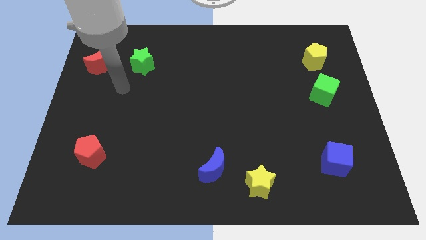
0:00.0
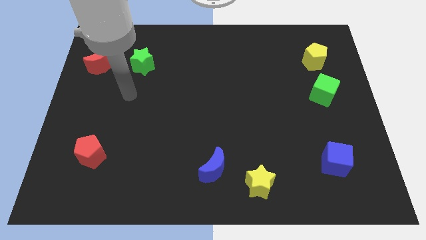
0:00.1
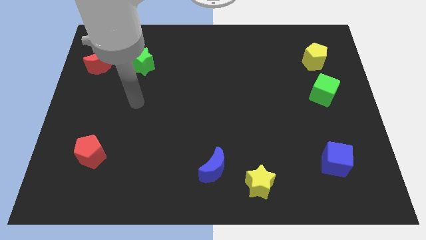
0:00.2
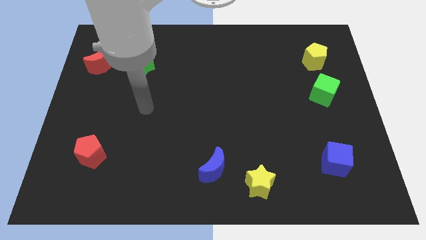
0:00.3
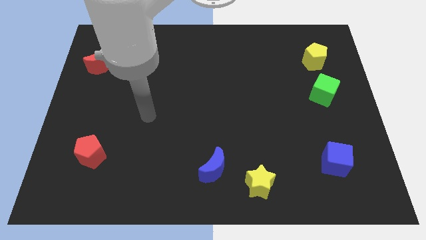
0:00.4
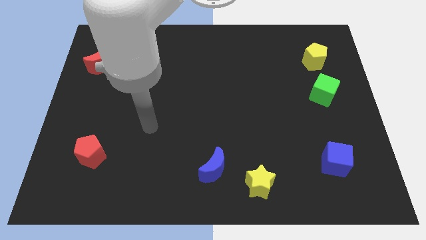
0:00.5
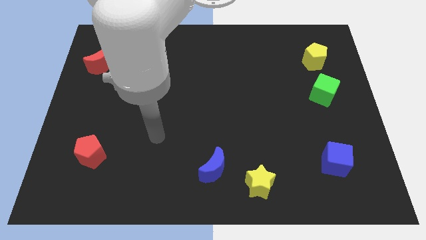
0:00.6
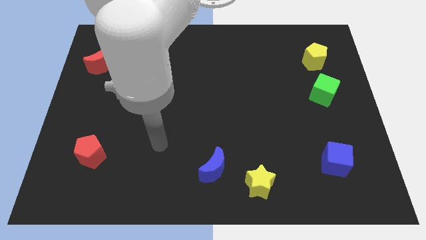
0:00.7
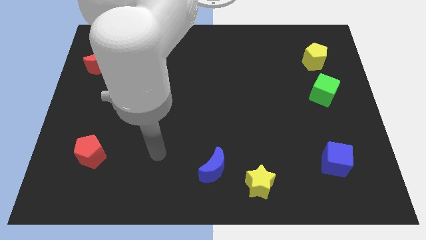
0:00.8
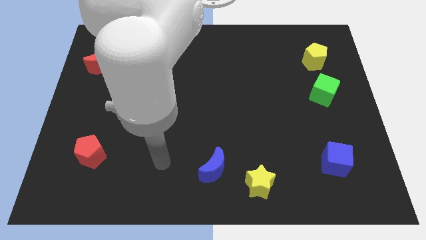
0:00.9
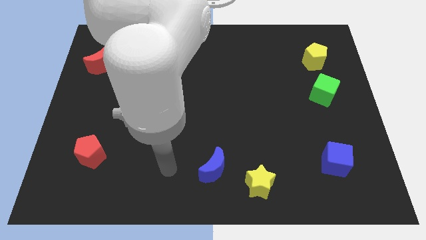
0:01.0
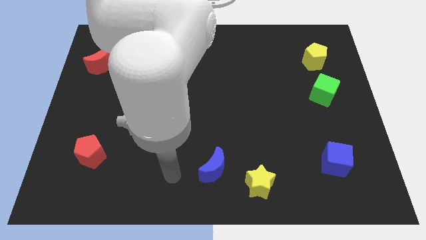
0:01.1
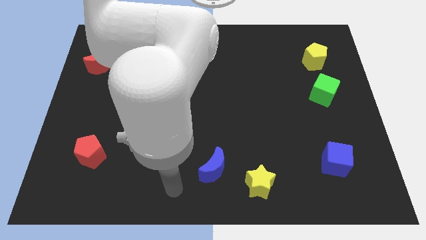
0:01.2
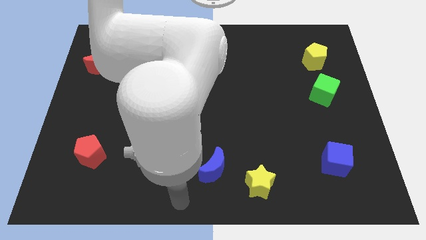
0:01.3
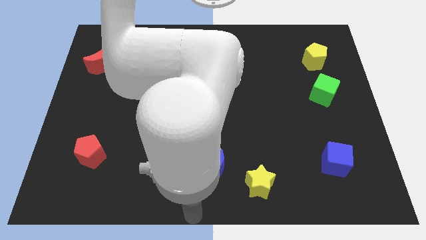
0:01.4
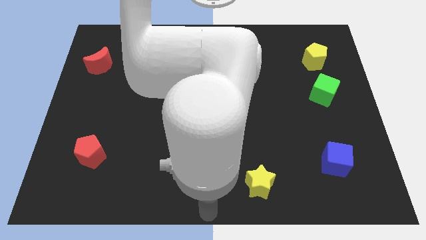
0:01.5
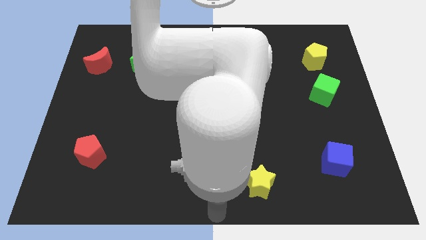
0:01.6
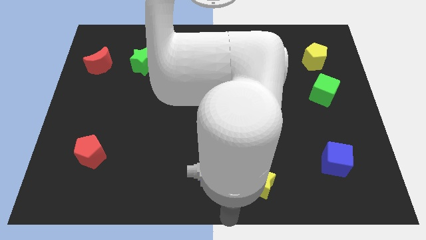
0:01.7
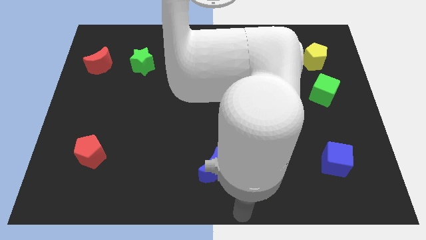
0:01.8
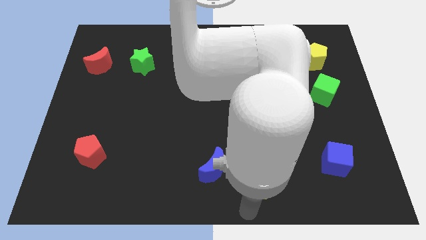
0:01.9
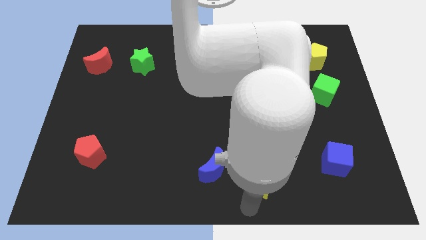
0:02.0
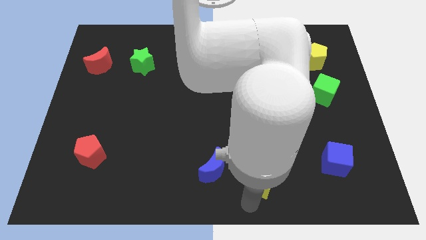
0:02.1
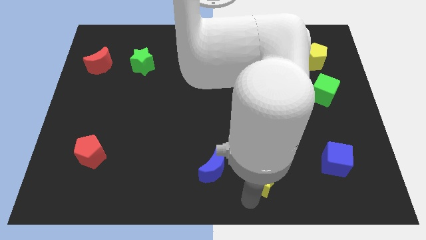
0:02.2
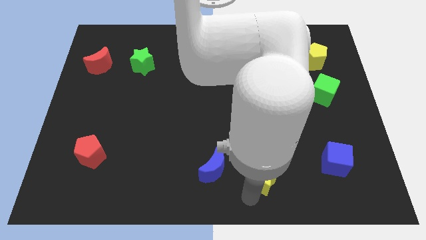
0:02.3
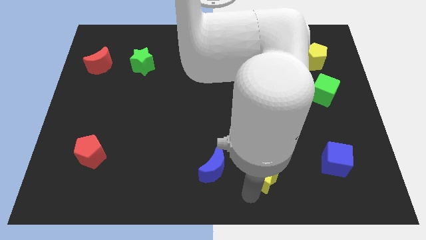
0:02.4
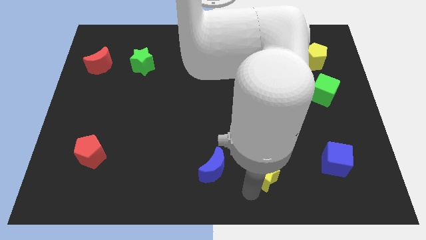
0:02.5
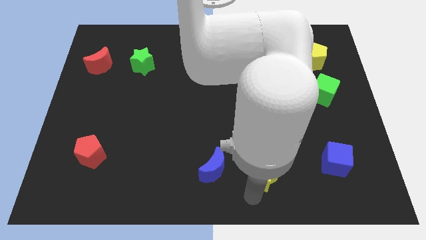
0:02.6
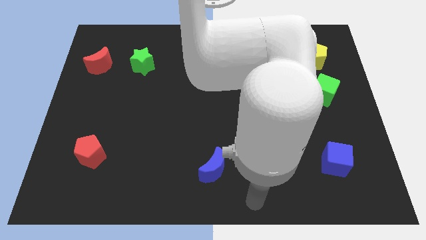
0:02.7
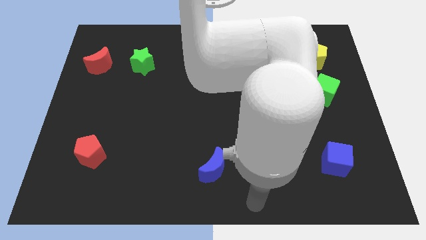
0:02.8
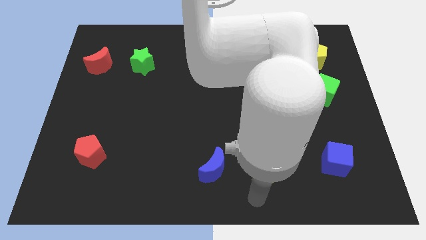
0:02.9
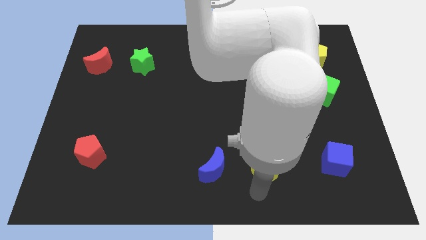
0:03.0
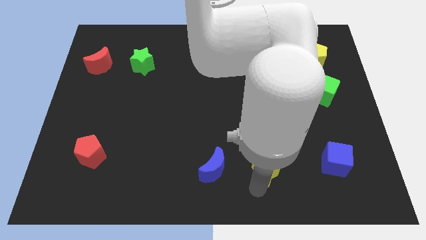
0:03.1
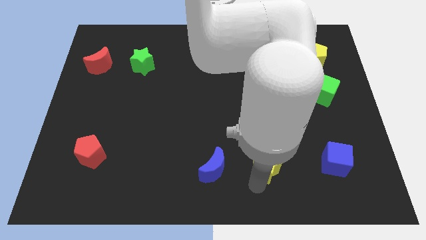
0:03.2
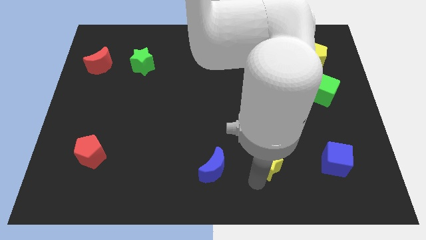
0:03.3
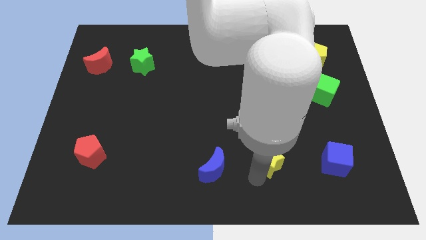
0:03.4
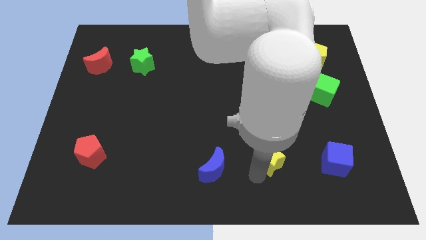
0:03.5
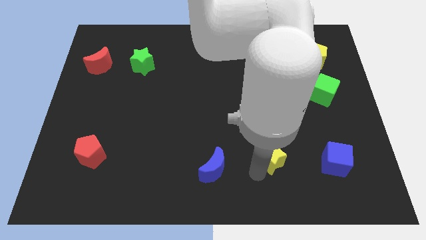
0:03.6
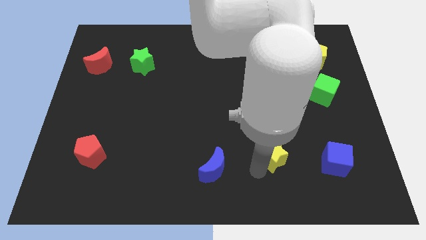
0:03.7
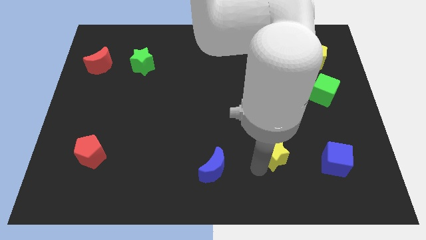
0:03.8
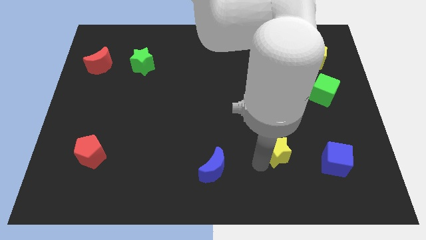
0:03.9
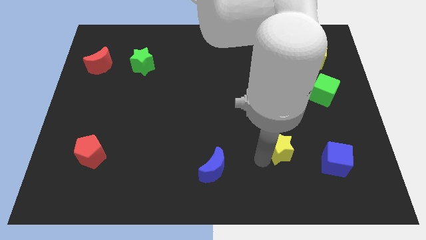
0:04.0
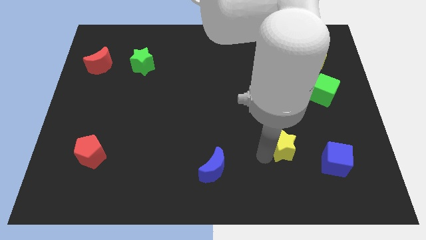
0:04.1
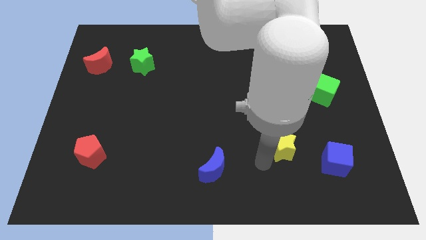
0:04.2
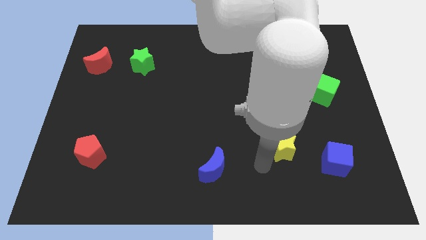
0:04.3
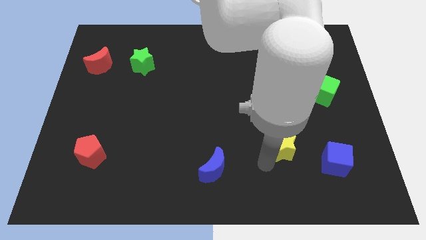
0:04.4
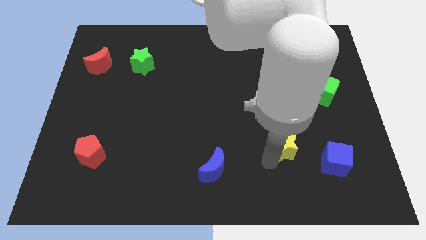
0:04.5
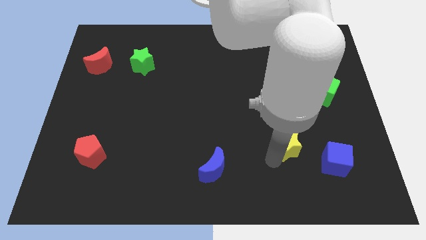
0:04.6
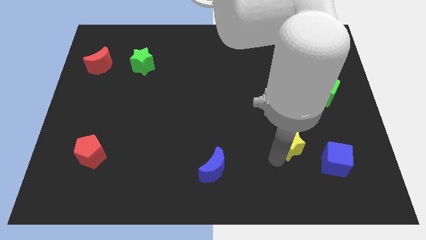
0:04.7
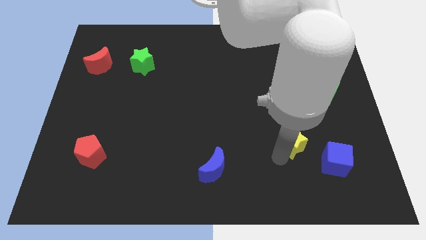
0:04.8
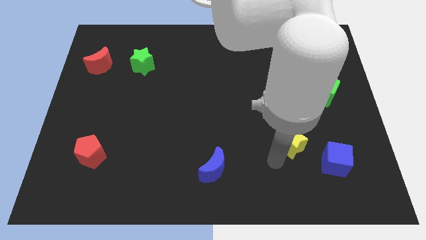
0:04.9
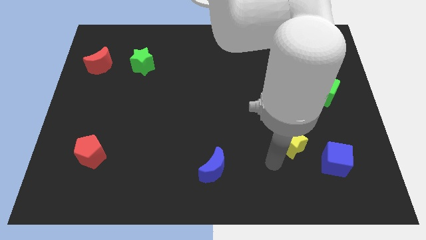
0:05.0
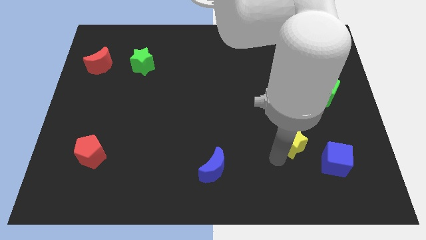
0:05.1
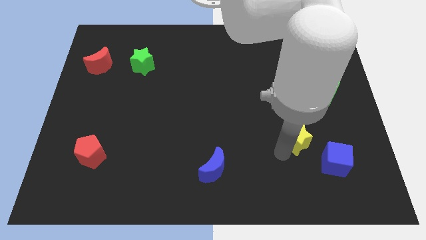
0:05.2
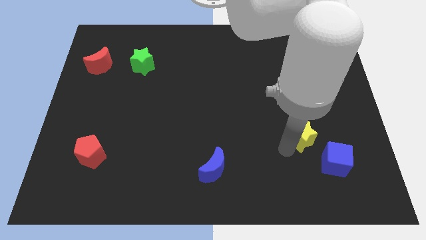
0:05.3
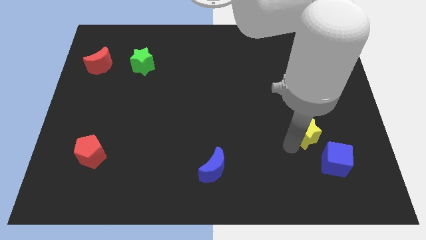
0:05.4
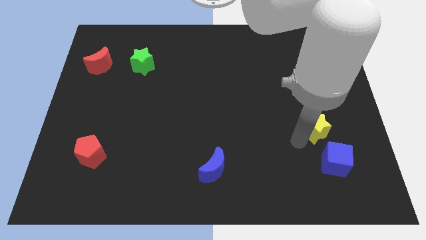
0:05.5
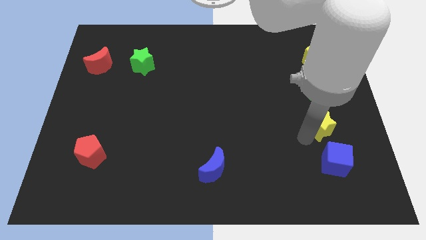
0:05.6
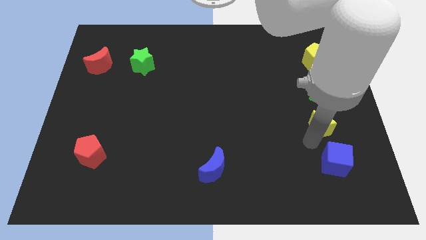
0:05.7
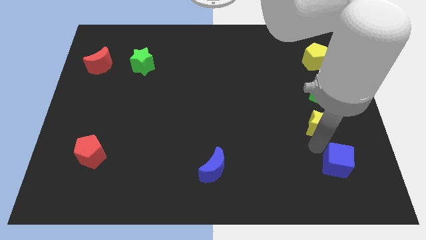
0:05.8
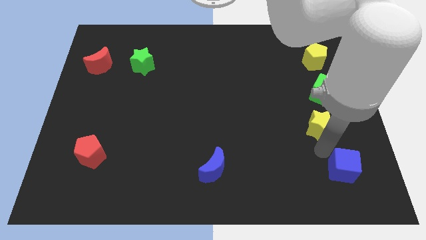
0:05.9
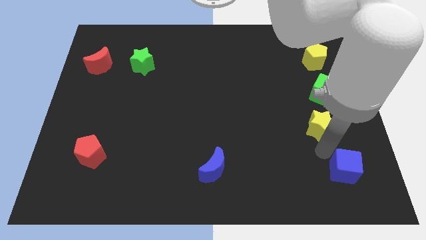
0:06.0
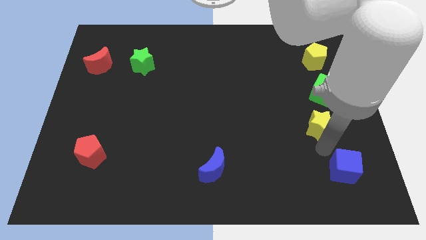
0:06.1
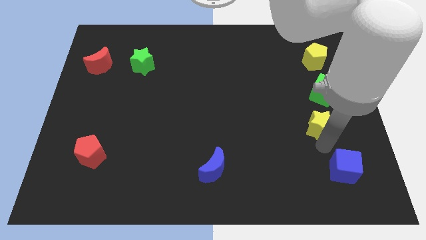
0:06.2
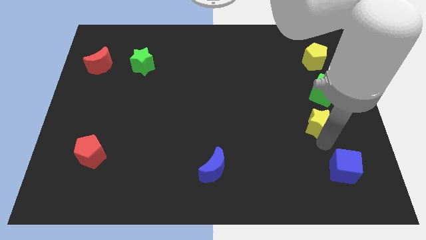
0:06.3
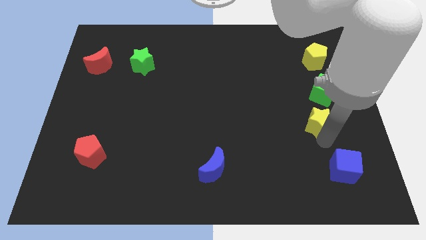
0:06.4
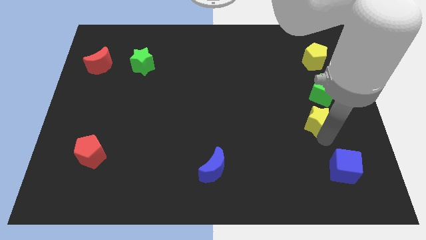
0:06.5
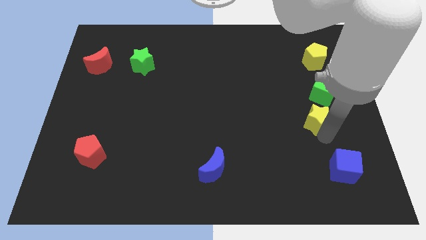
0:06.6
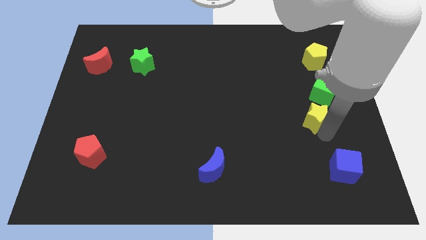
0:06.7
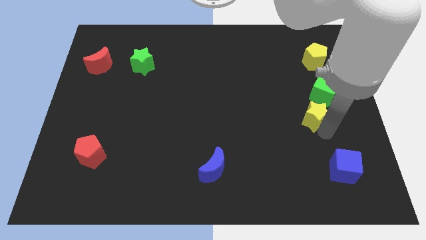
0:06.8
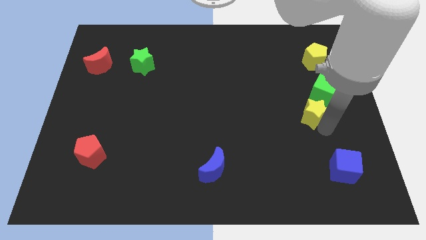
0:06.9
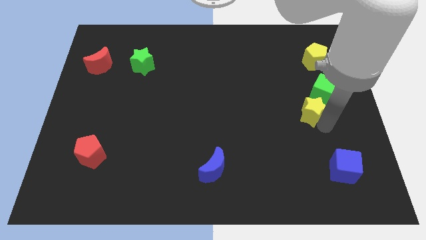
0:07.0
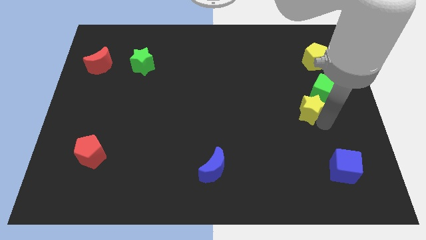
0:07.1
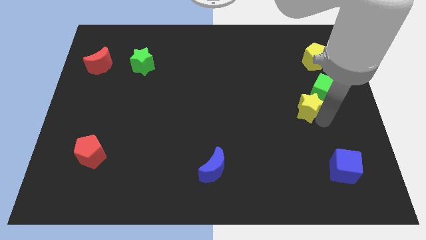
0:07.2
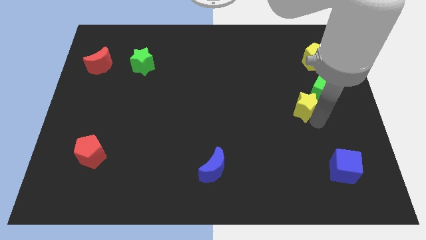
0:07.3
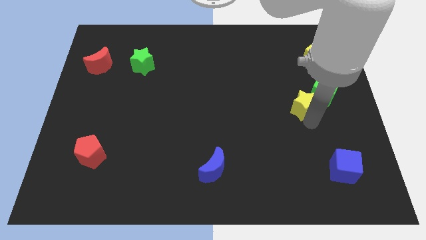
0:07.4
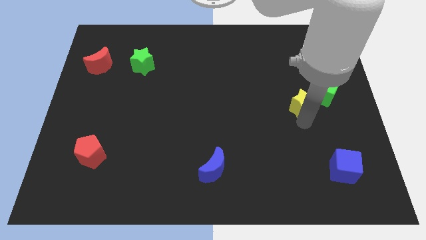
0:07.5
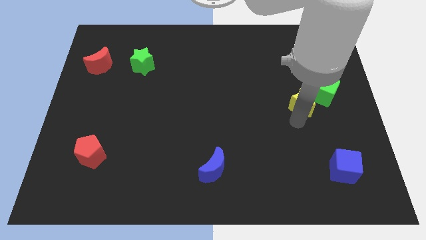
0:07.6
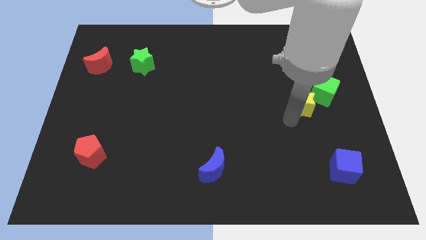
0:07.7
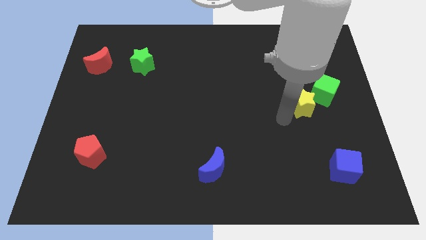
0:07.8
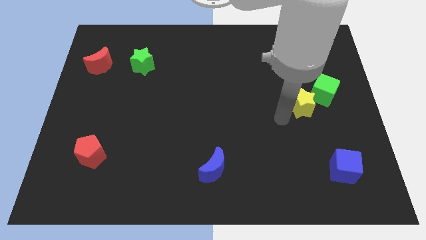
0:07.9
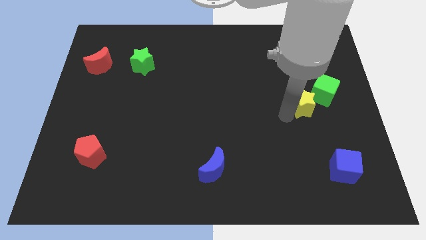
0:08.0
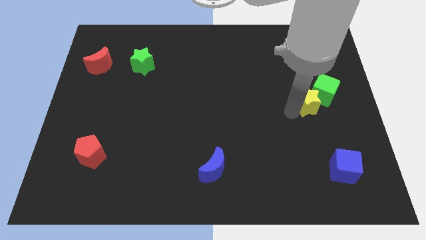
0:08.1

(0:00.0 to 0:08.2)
put the yellow star towards the green cube

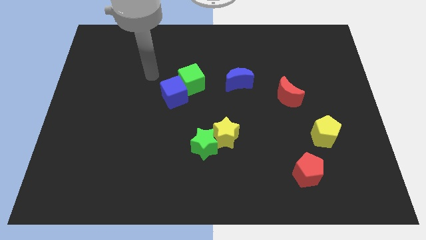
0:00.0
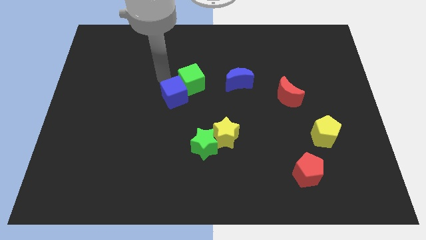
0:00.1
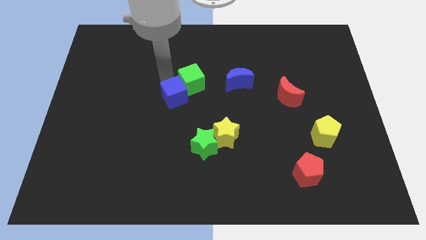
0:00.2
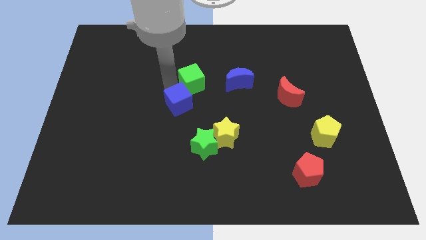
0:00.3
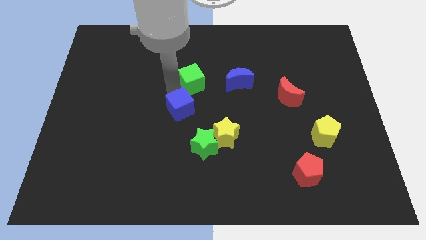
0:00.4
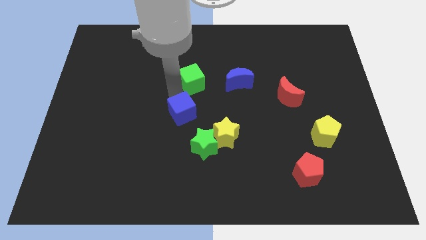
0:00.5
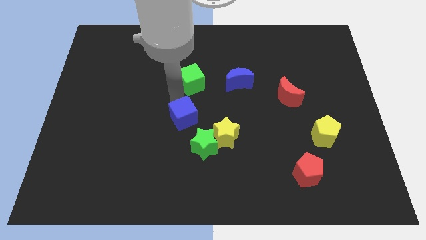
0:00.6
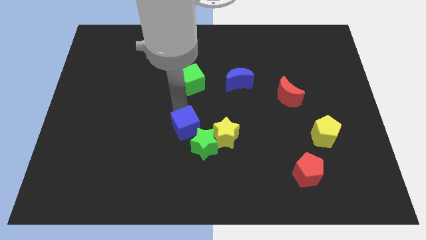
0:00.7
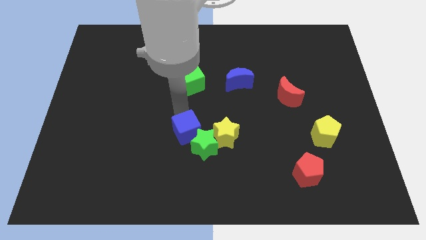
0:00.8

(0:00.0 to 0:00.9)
push the blue cube towards the green star
